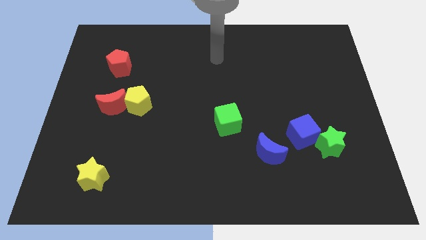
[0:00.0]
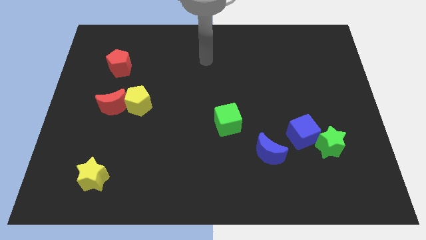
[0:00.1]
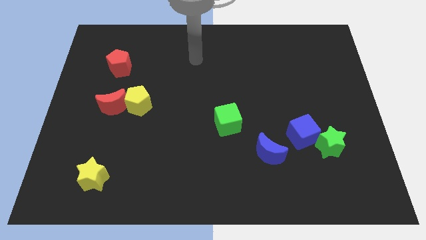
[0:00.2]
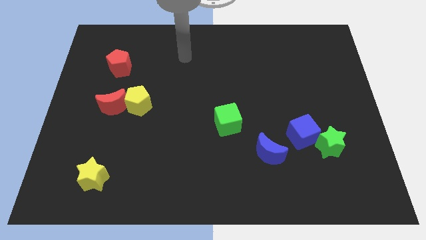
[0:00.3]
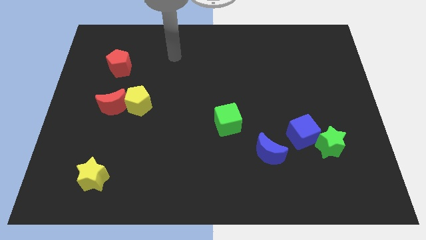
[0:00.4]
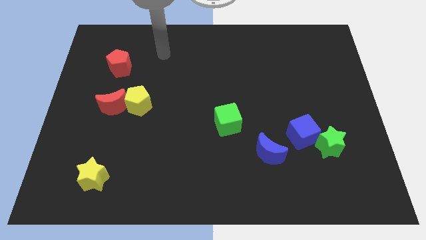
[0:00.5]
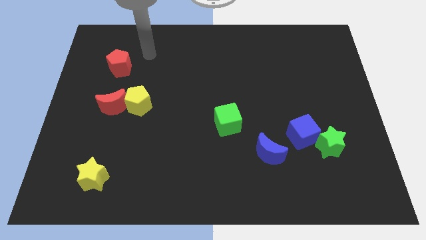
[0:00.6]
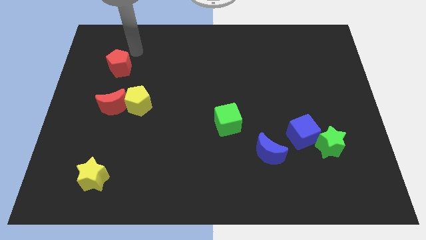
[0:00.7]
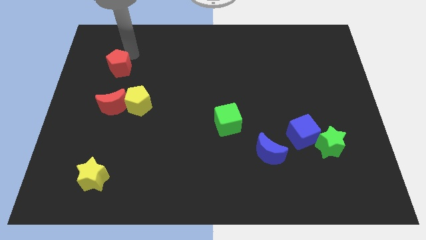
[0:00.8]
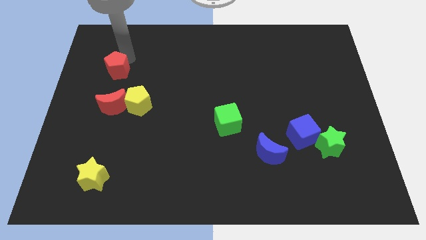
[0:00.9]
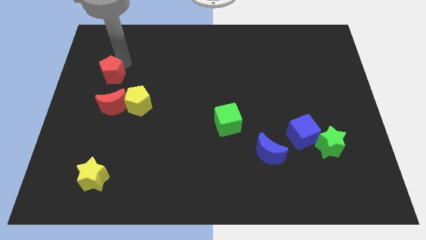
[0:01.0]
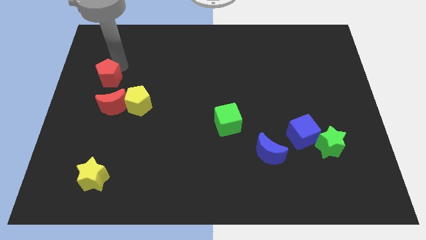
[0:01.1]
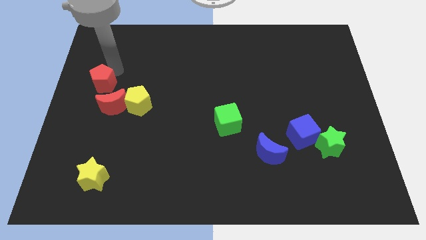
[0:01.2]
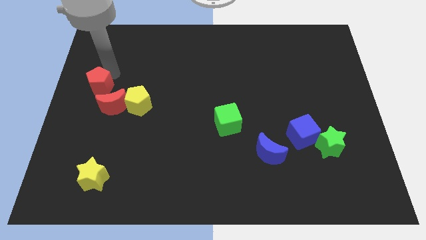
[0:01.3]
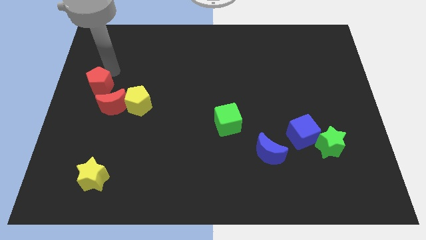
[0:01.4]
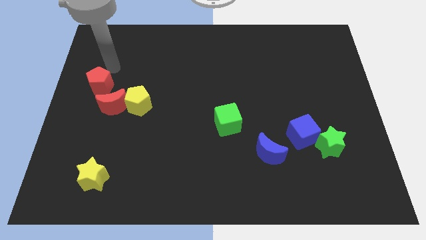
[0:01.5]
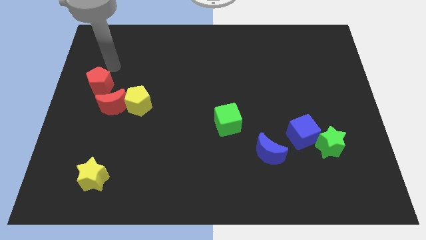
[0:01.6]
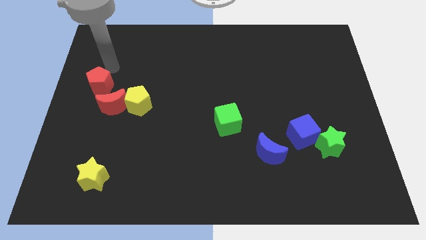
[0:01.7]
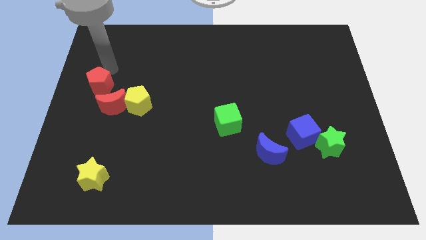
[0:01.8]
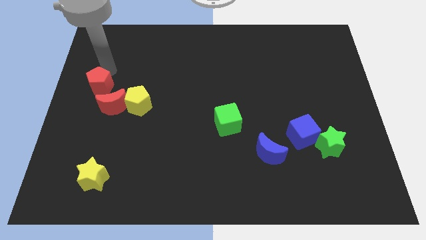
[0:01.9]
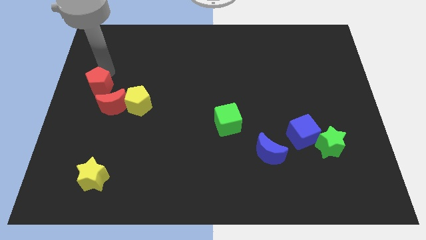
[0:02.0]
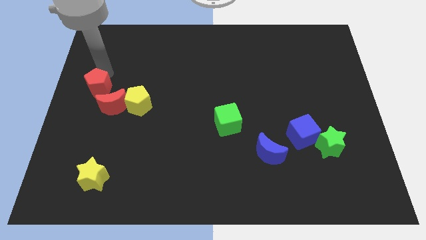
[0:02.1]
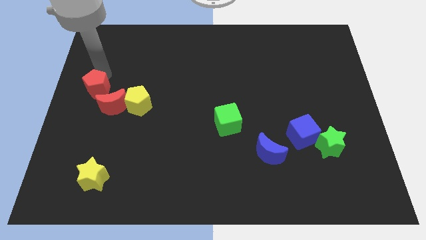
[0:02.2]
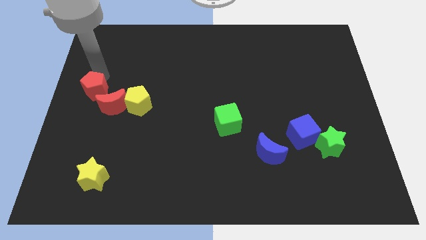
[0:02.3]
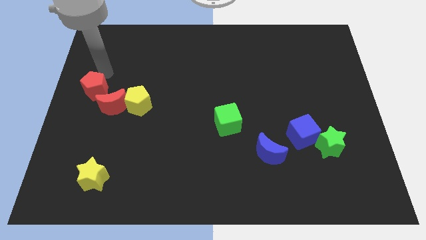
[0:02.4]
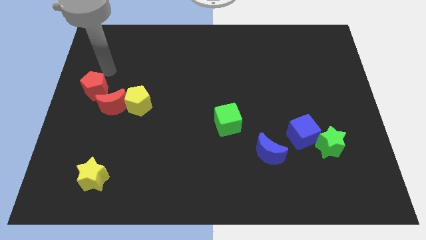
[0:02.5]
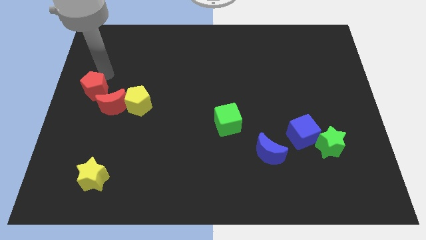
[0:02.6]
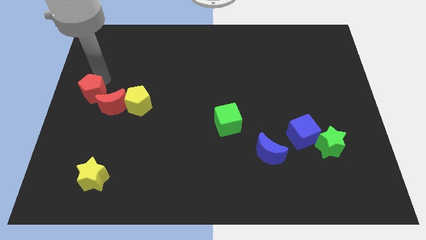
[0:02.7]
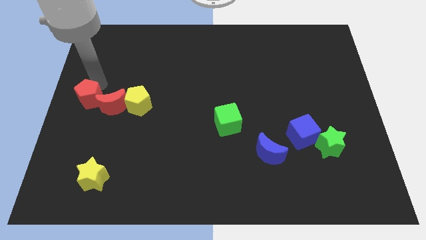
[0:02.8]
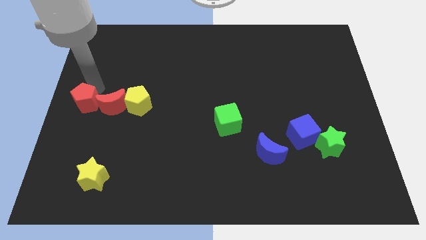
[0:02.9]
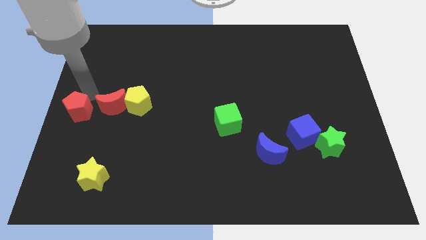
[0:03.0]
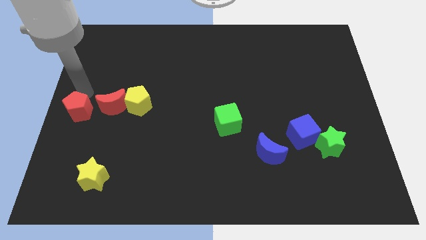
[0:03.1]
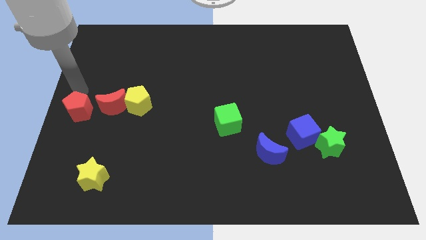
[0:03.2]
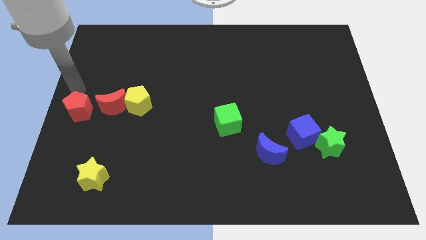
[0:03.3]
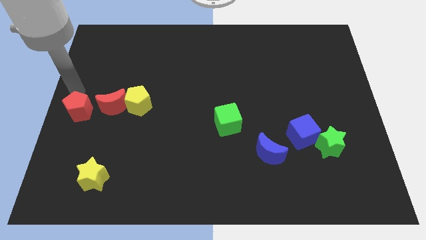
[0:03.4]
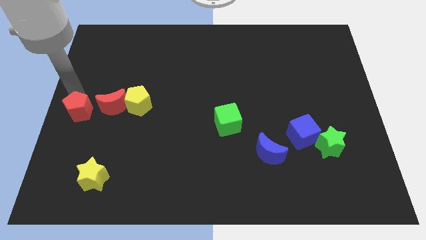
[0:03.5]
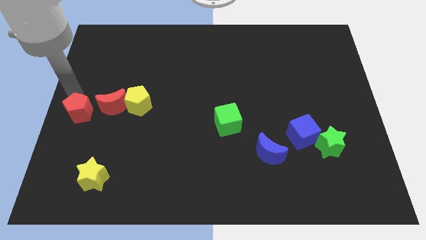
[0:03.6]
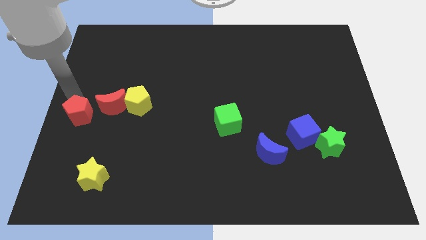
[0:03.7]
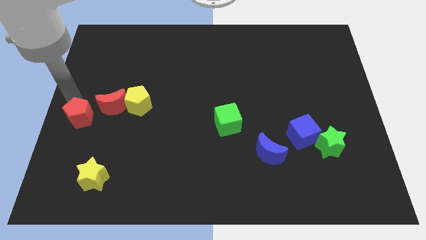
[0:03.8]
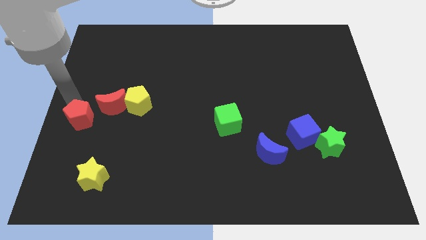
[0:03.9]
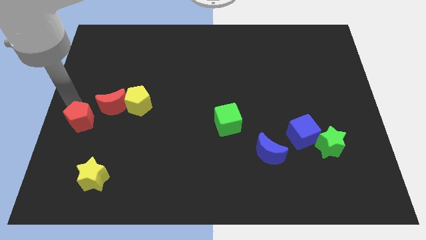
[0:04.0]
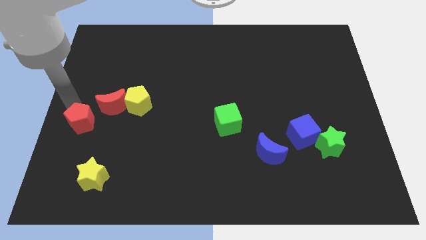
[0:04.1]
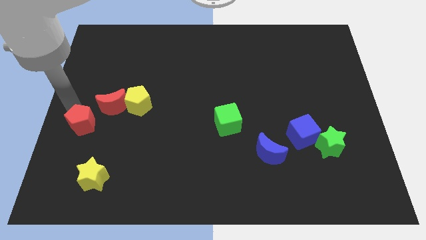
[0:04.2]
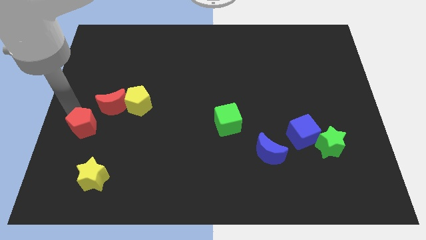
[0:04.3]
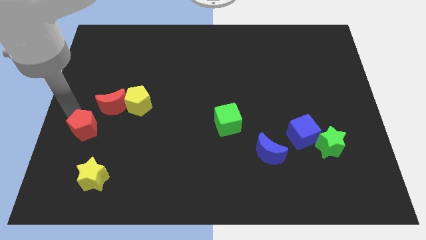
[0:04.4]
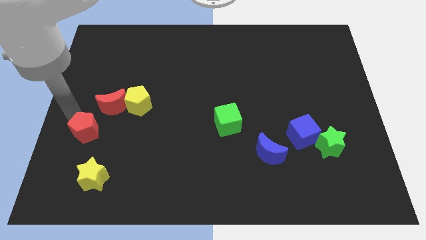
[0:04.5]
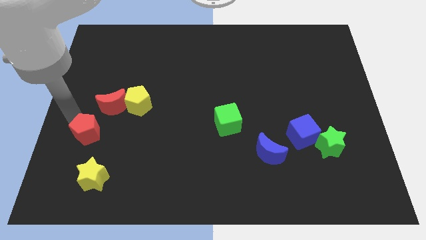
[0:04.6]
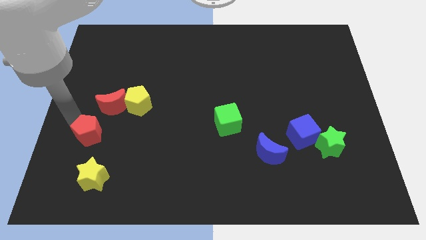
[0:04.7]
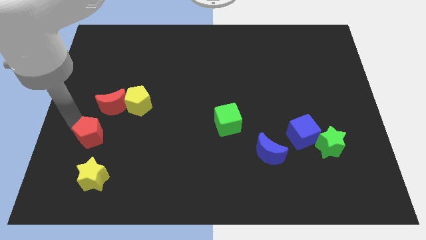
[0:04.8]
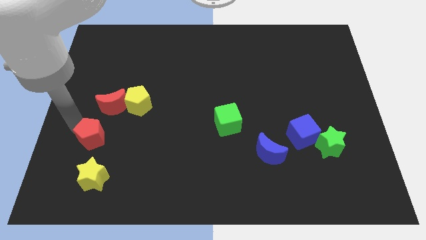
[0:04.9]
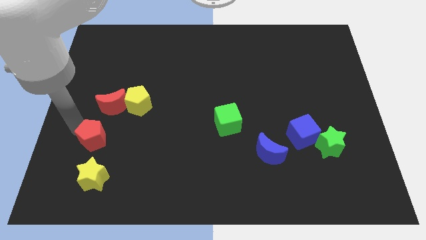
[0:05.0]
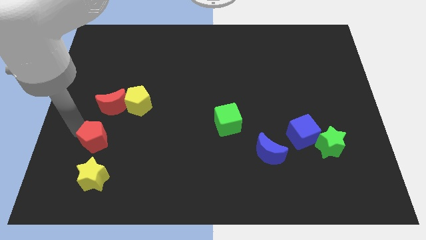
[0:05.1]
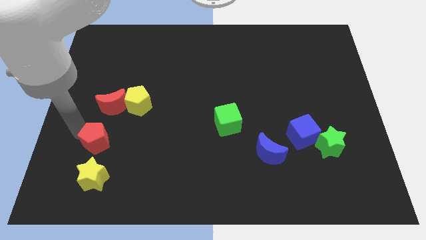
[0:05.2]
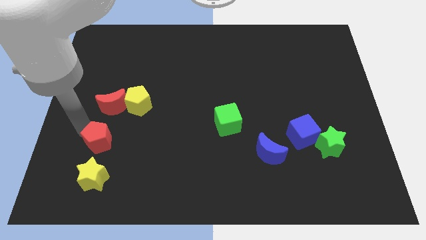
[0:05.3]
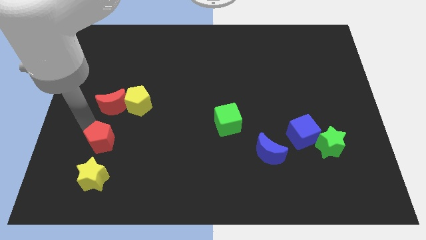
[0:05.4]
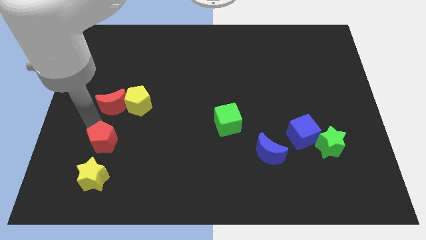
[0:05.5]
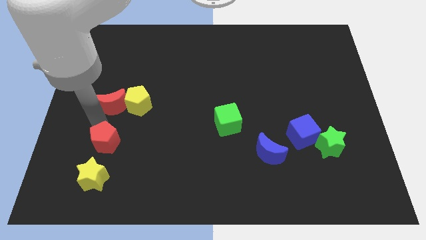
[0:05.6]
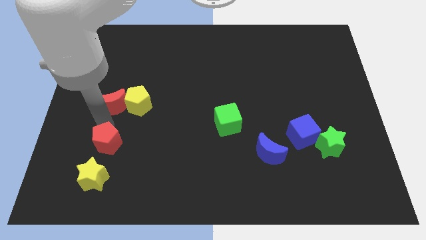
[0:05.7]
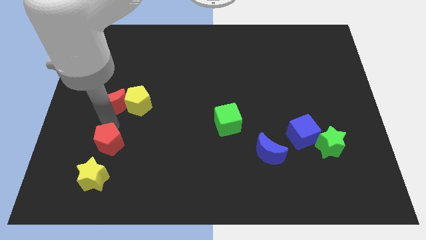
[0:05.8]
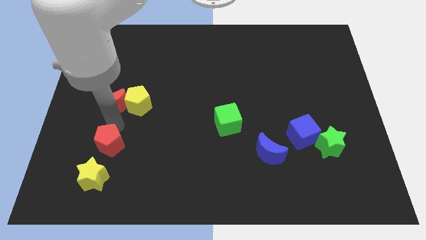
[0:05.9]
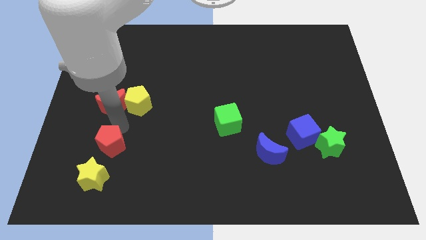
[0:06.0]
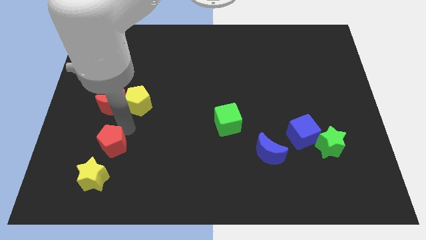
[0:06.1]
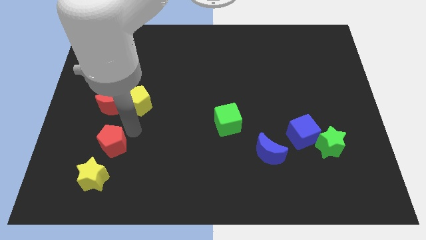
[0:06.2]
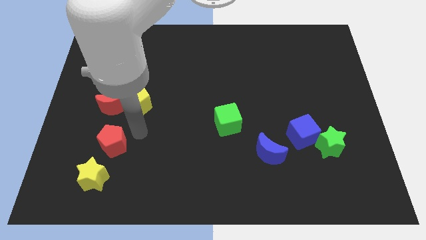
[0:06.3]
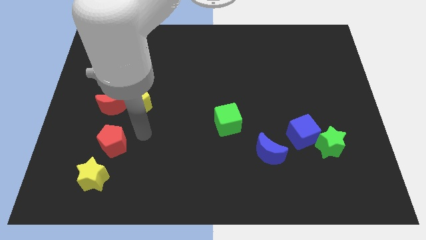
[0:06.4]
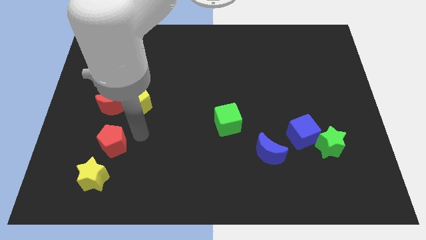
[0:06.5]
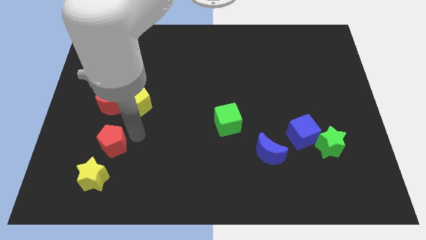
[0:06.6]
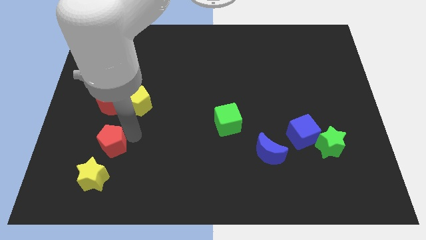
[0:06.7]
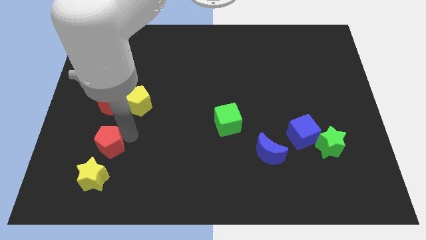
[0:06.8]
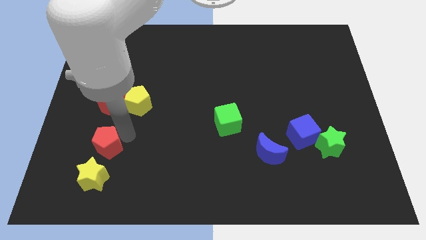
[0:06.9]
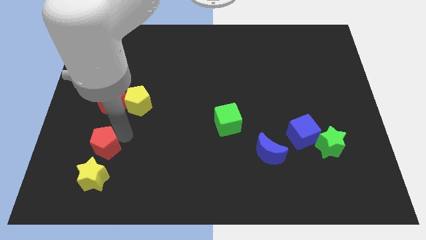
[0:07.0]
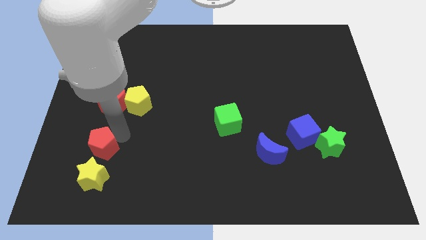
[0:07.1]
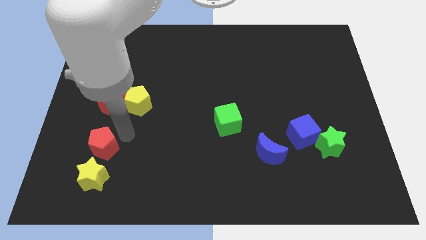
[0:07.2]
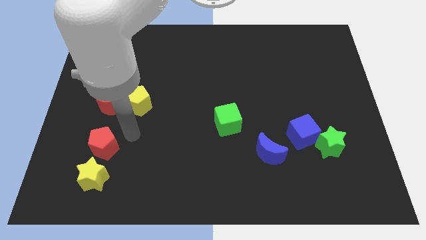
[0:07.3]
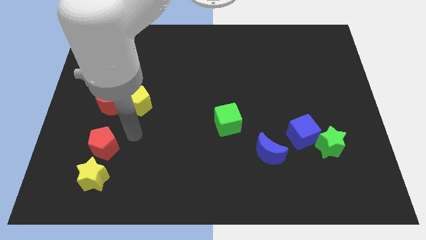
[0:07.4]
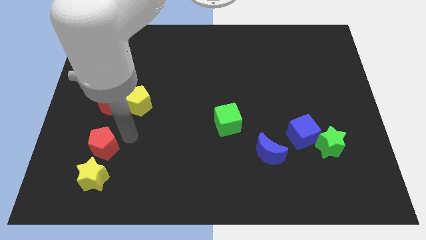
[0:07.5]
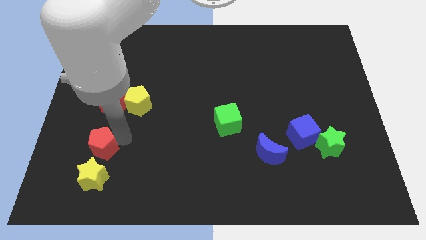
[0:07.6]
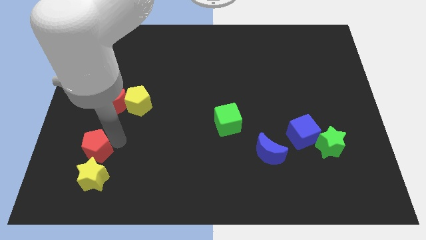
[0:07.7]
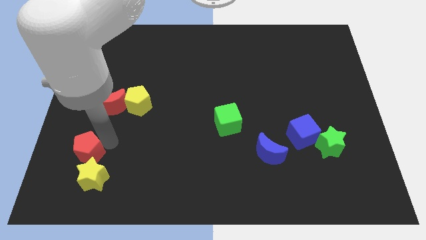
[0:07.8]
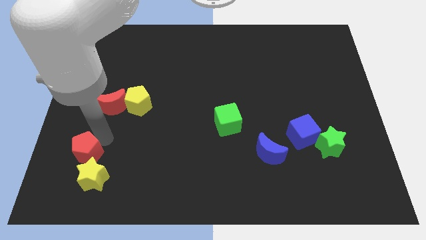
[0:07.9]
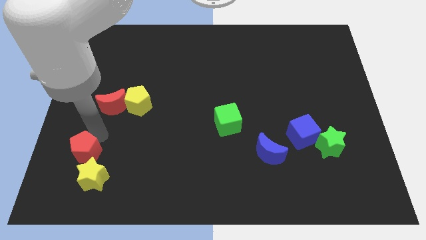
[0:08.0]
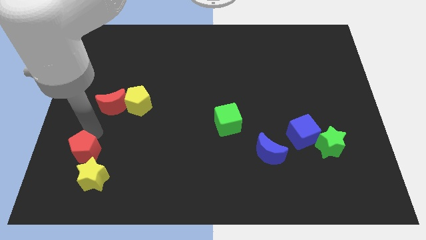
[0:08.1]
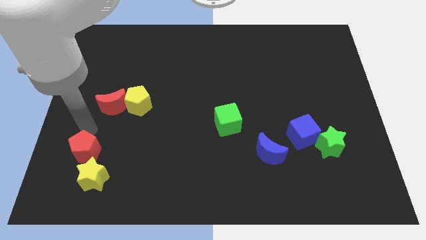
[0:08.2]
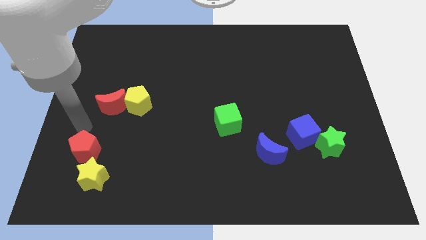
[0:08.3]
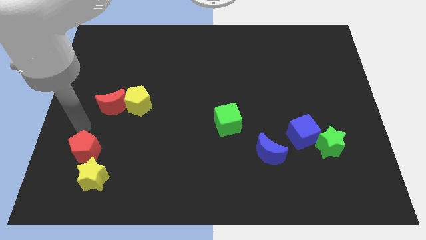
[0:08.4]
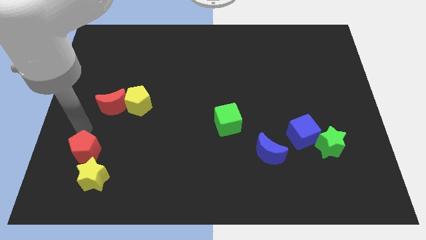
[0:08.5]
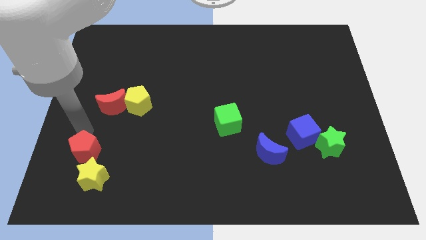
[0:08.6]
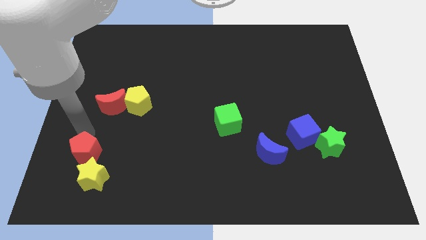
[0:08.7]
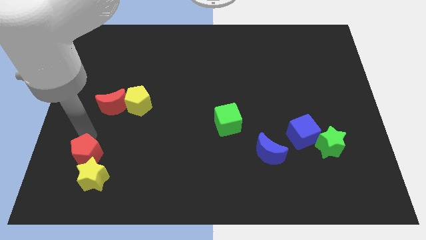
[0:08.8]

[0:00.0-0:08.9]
slide the red pentagon close to the yellow star
